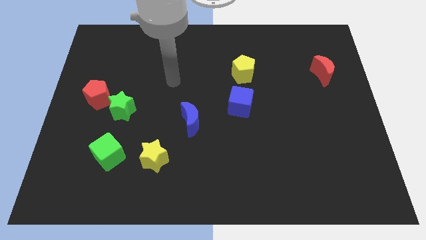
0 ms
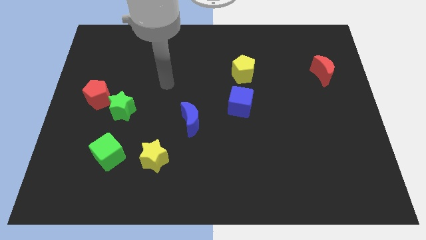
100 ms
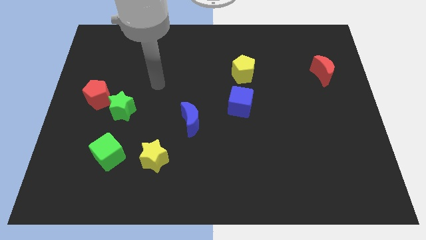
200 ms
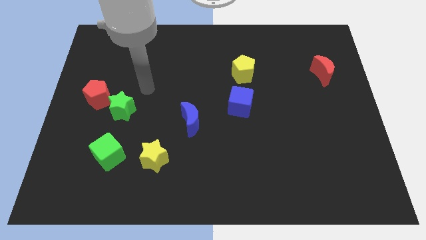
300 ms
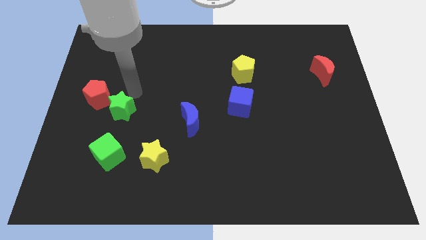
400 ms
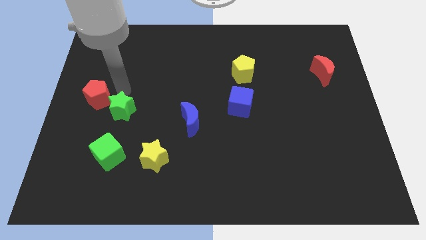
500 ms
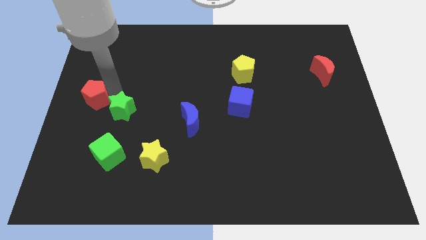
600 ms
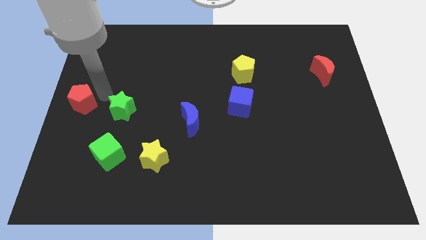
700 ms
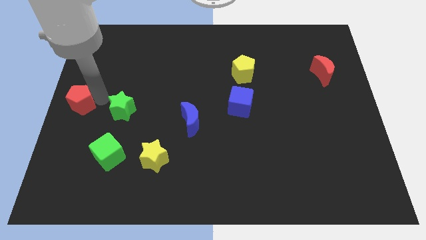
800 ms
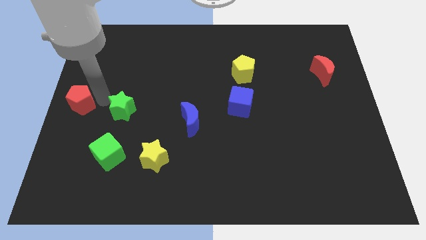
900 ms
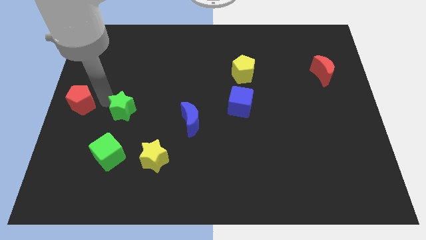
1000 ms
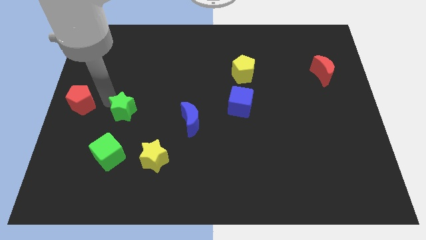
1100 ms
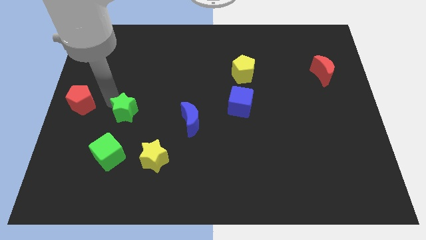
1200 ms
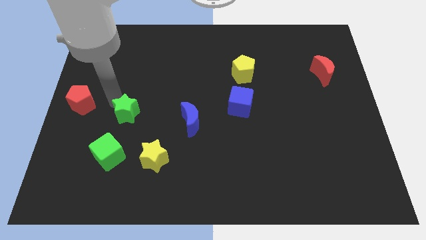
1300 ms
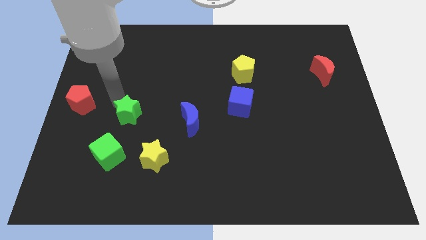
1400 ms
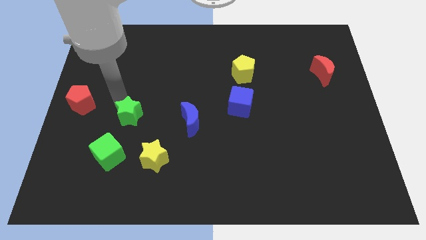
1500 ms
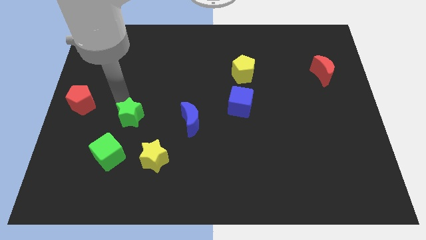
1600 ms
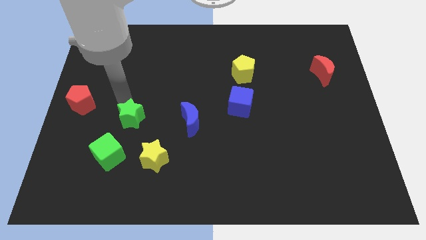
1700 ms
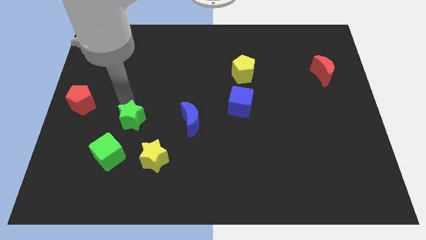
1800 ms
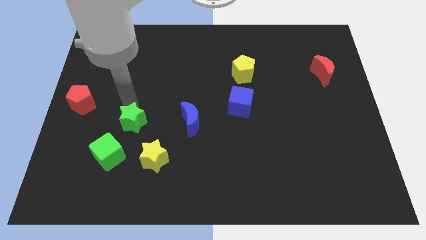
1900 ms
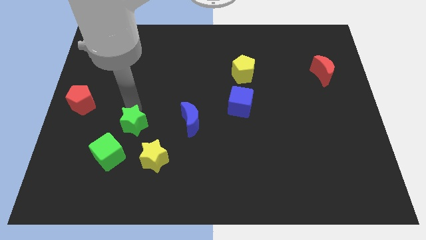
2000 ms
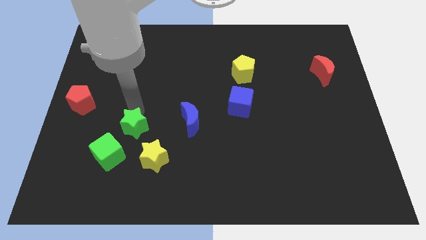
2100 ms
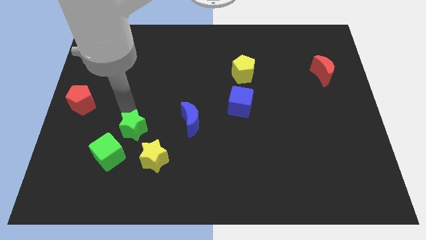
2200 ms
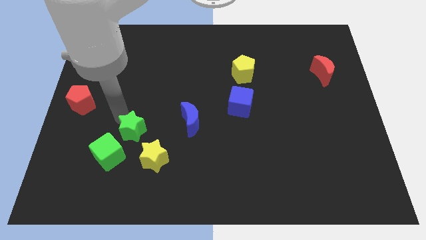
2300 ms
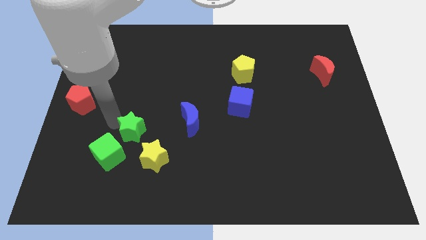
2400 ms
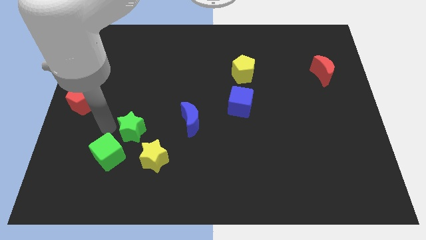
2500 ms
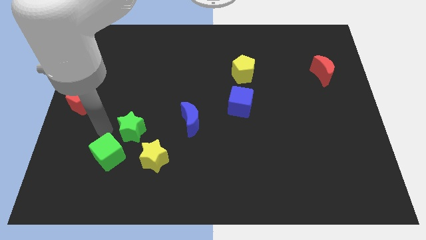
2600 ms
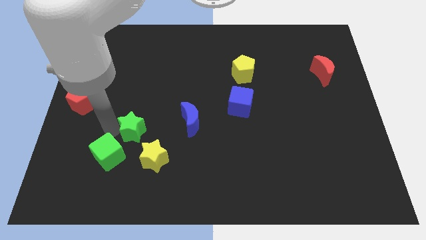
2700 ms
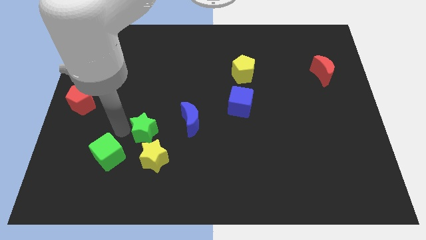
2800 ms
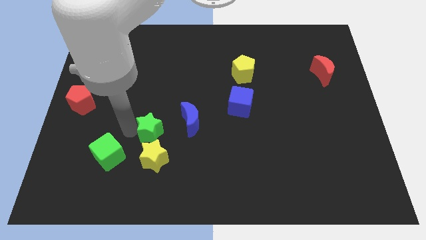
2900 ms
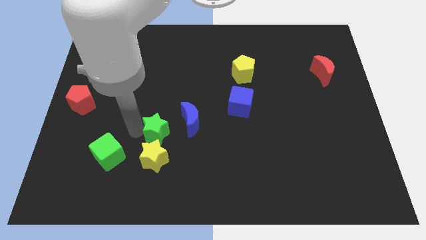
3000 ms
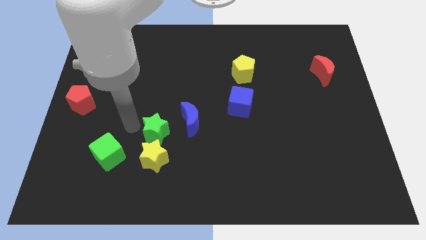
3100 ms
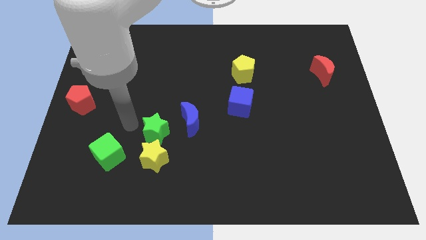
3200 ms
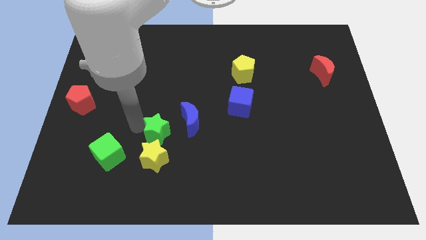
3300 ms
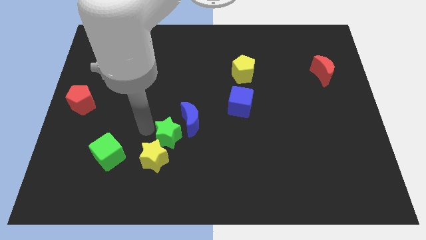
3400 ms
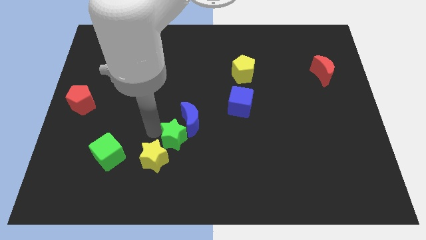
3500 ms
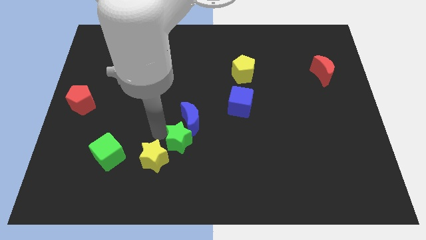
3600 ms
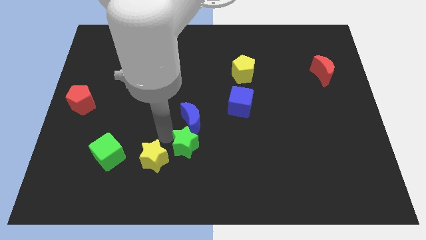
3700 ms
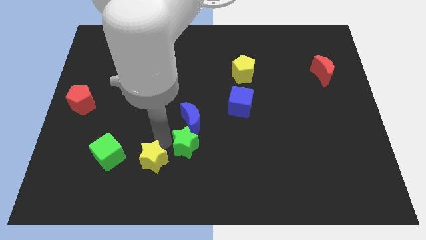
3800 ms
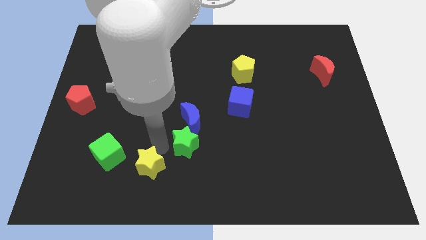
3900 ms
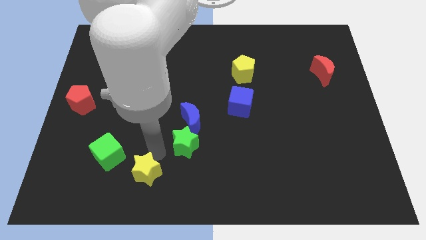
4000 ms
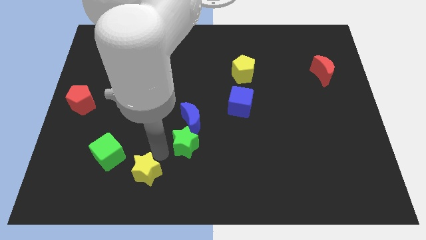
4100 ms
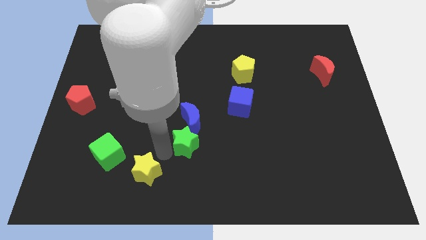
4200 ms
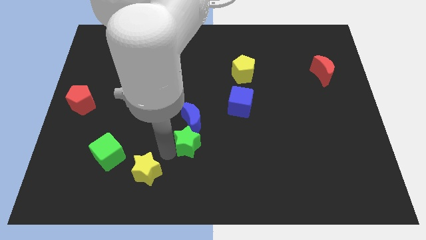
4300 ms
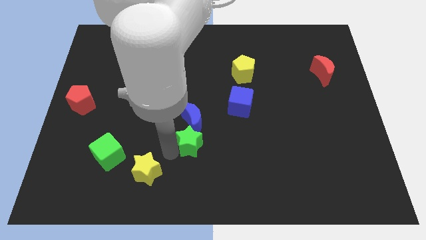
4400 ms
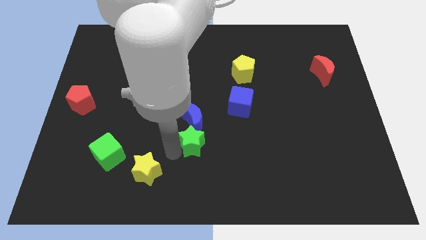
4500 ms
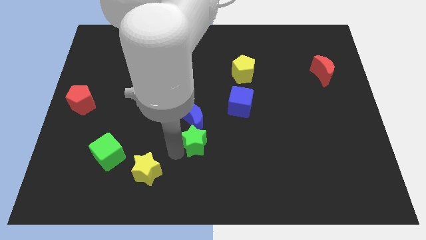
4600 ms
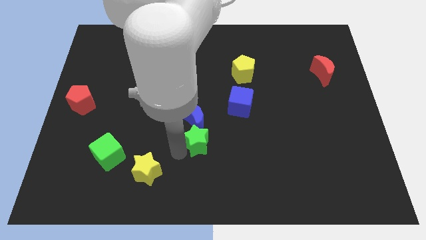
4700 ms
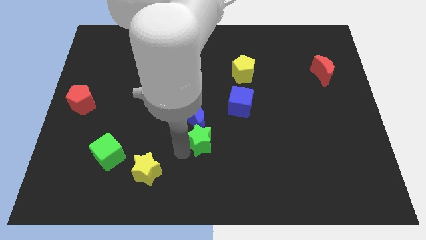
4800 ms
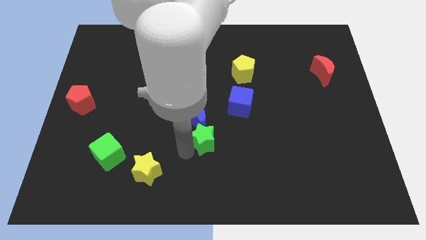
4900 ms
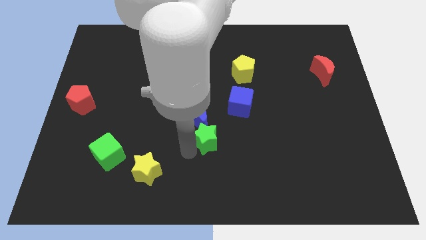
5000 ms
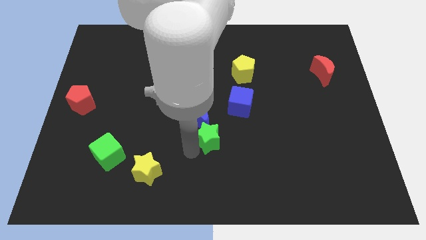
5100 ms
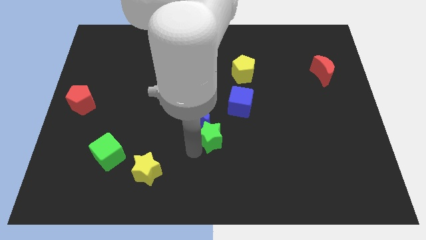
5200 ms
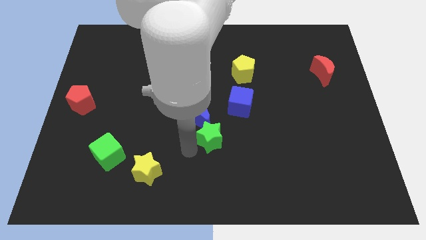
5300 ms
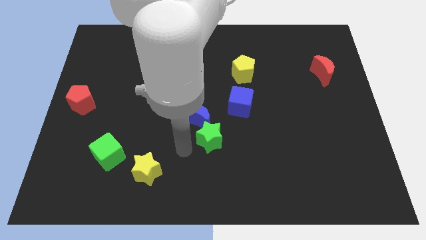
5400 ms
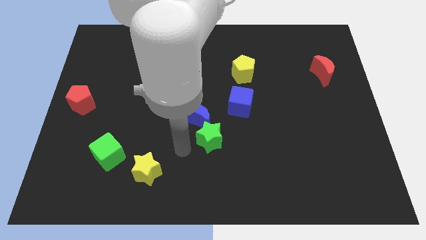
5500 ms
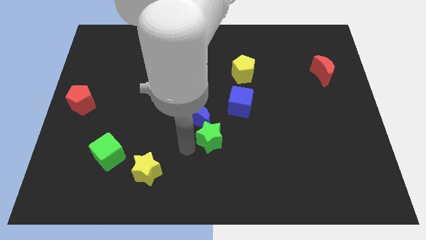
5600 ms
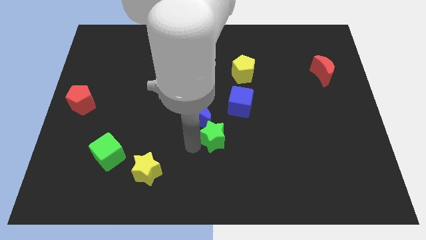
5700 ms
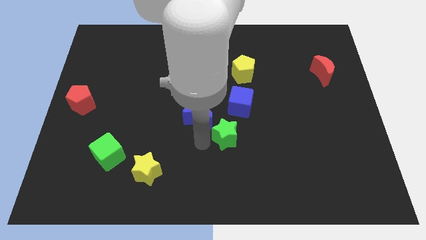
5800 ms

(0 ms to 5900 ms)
slide the green star to the right

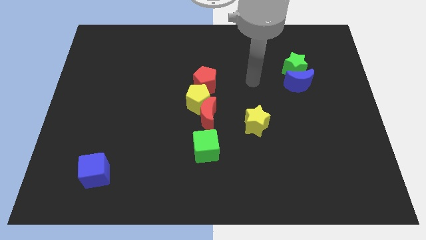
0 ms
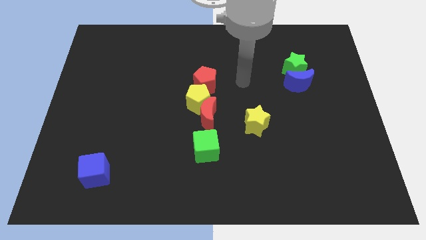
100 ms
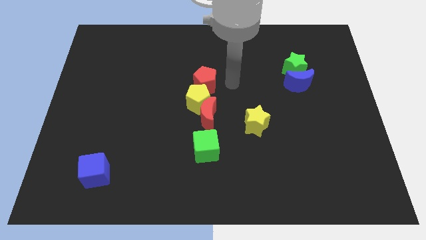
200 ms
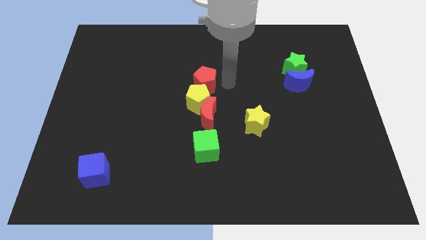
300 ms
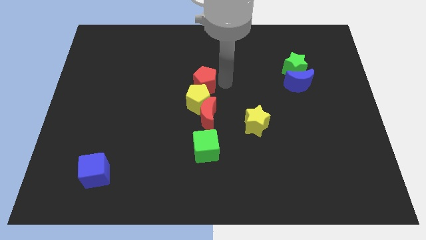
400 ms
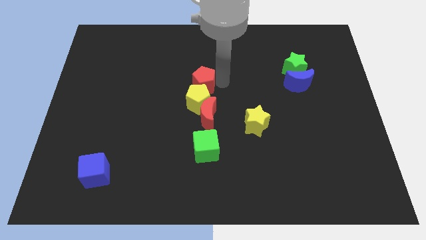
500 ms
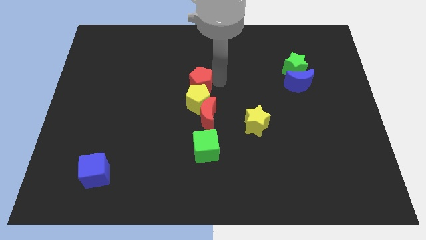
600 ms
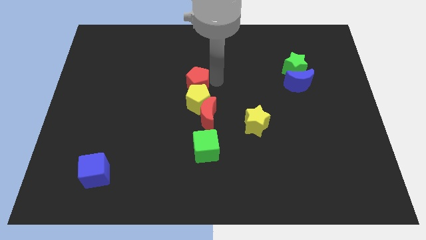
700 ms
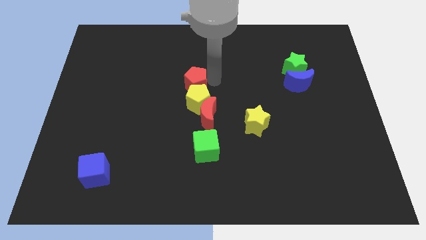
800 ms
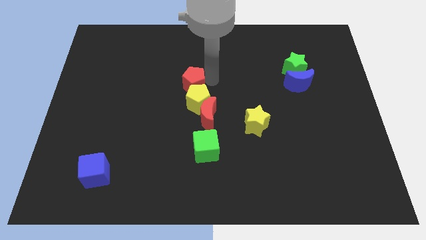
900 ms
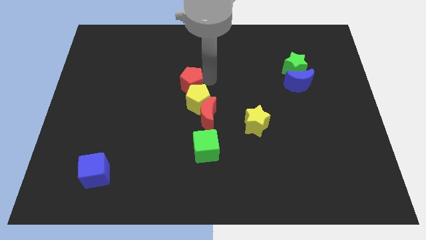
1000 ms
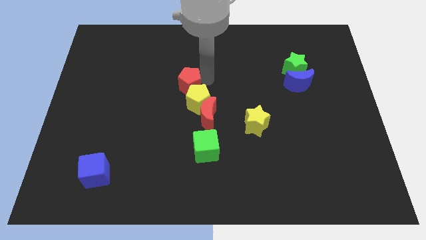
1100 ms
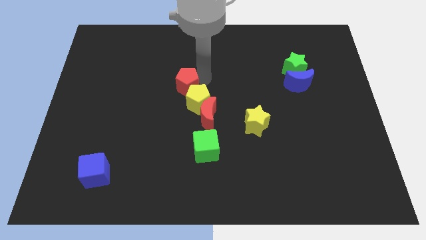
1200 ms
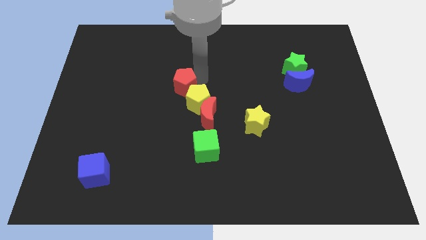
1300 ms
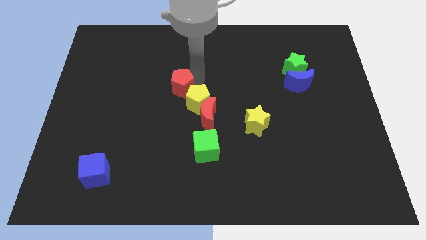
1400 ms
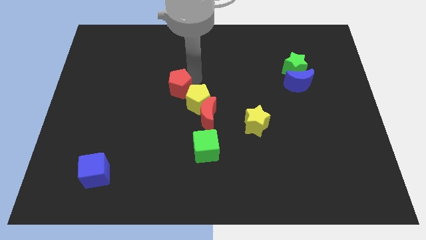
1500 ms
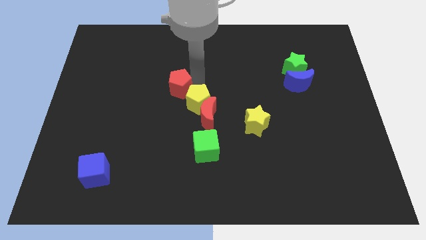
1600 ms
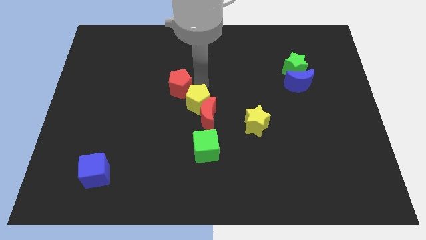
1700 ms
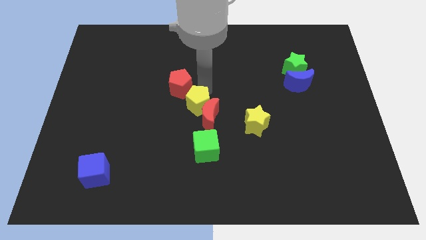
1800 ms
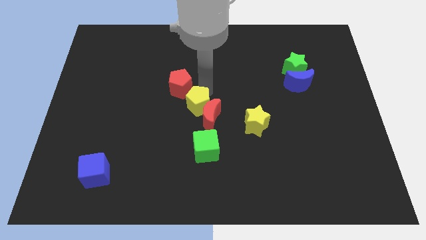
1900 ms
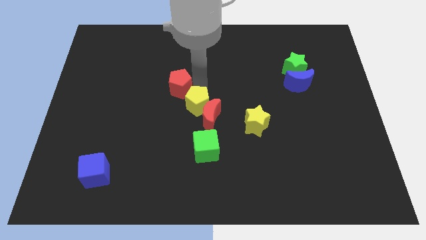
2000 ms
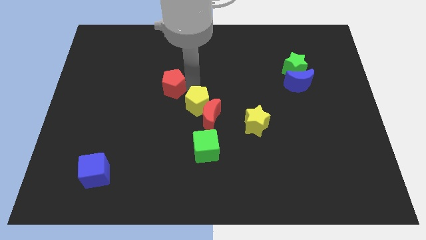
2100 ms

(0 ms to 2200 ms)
slide the red pentagon left a bit

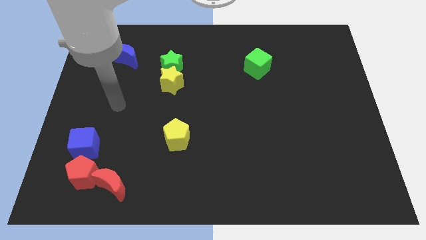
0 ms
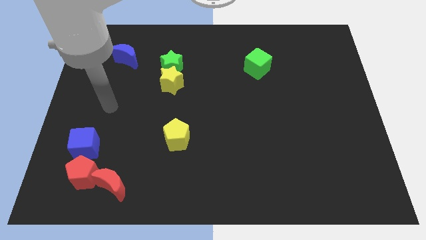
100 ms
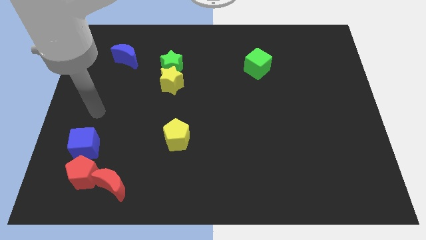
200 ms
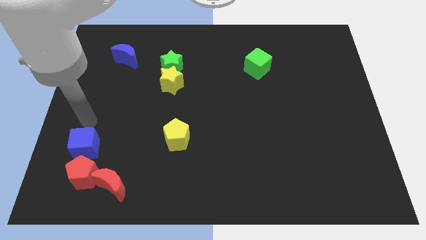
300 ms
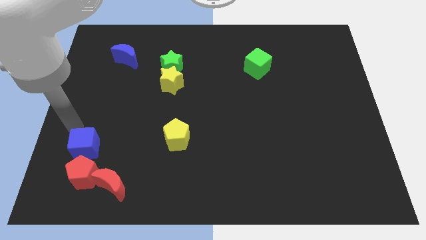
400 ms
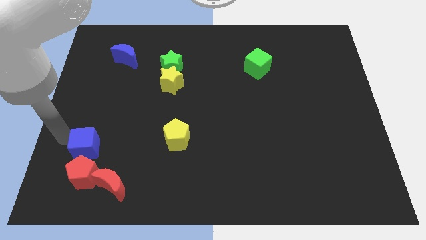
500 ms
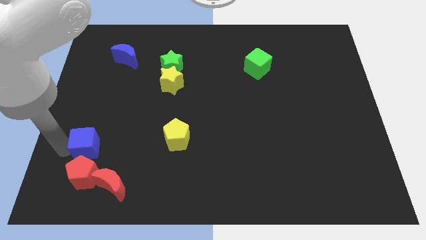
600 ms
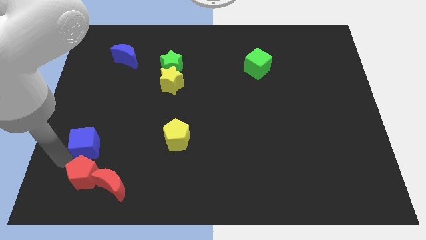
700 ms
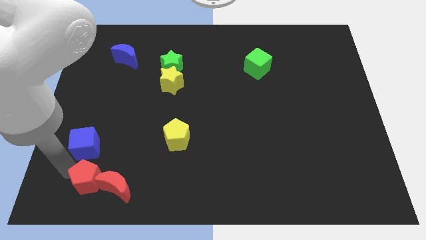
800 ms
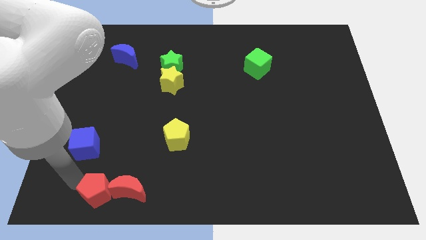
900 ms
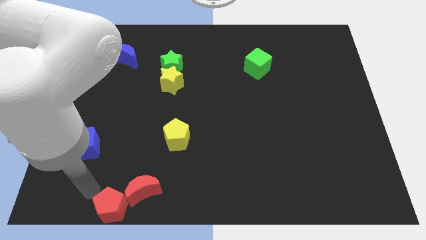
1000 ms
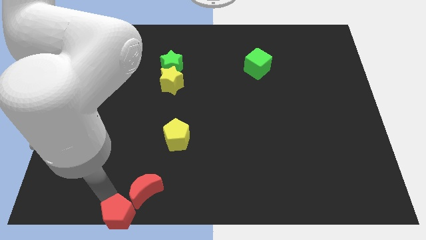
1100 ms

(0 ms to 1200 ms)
slide the red moon to the right a little
